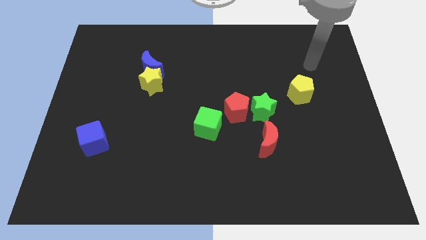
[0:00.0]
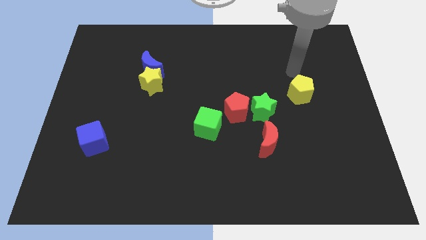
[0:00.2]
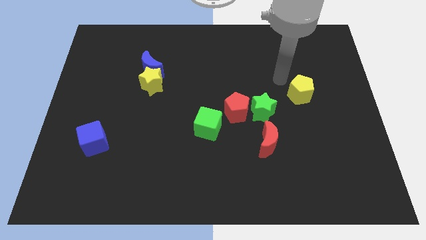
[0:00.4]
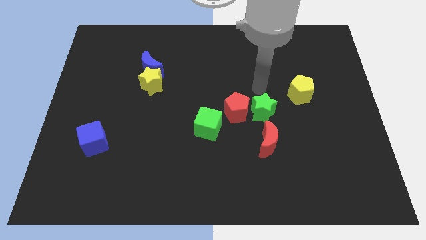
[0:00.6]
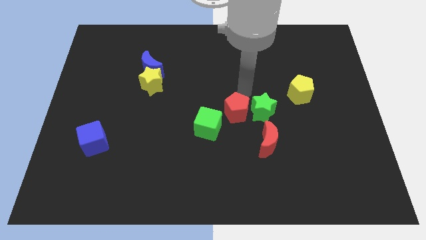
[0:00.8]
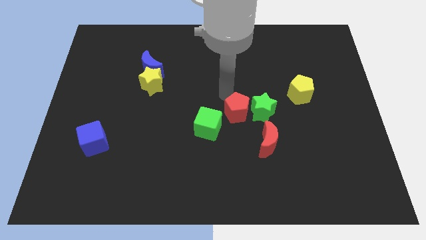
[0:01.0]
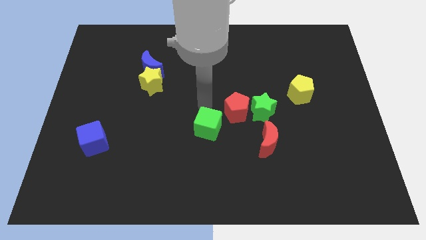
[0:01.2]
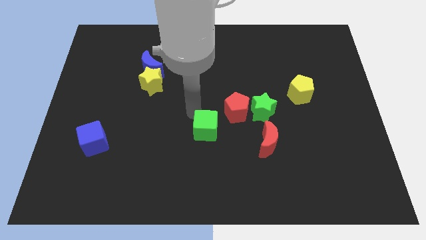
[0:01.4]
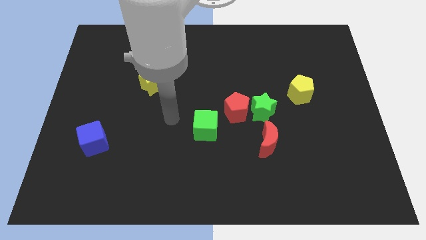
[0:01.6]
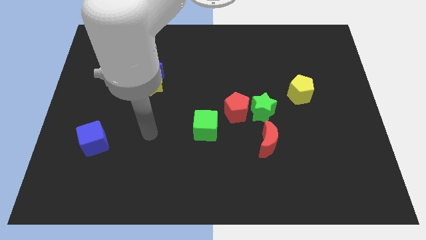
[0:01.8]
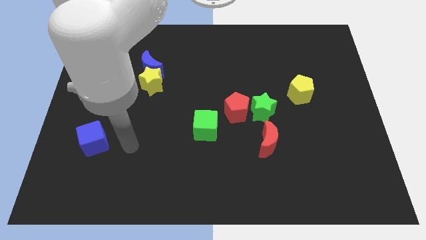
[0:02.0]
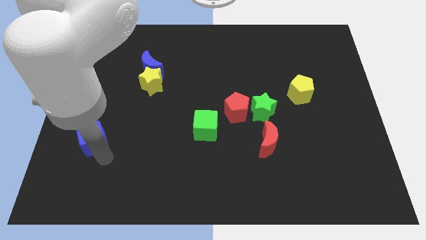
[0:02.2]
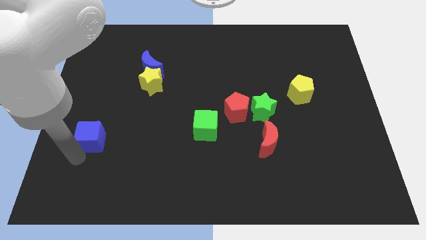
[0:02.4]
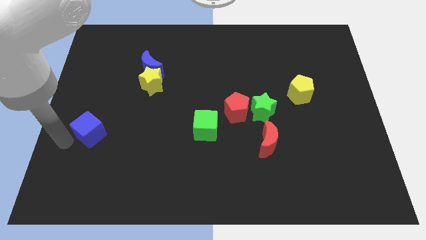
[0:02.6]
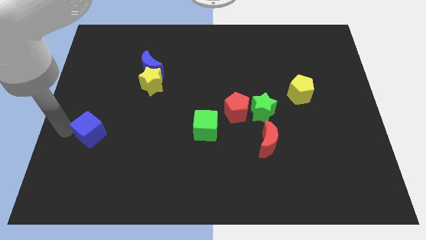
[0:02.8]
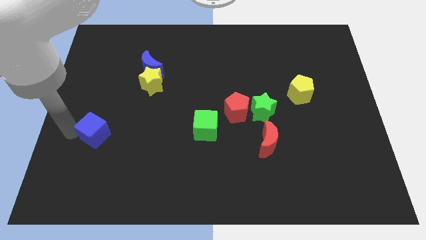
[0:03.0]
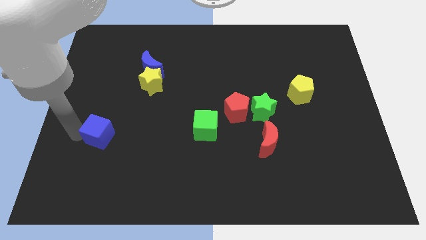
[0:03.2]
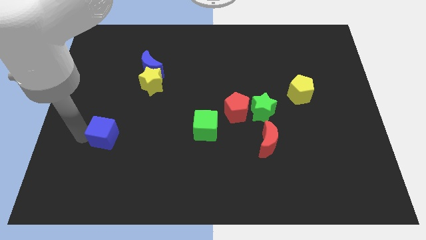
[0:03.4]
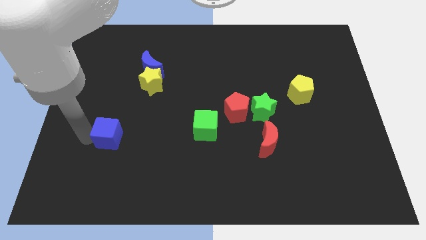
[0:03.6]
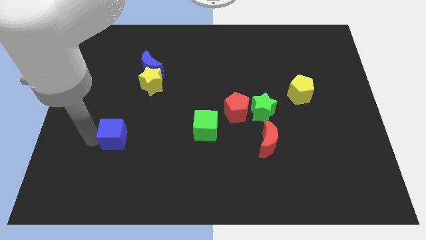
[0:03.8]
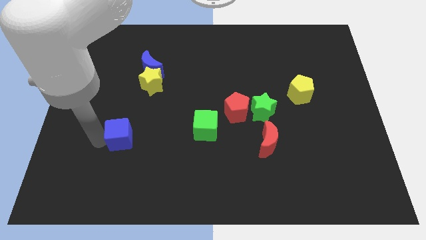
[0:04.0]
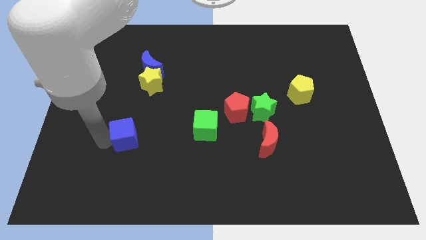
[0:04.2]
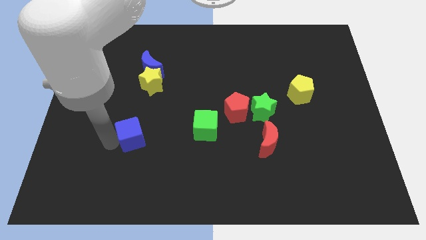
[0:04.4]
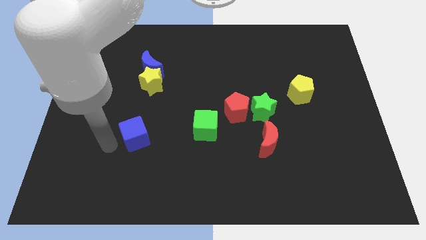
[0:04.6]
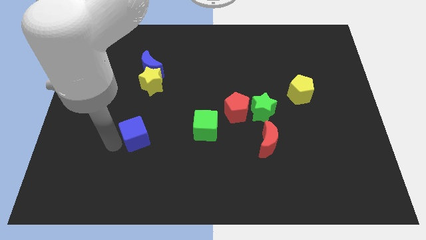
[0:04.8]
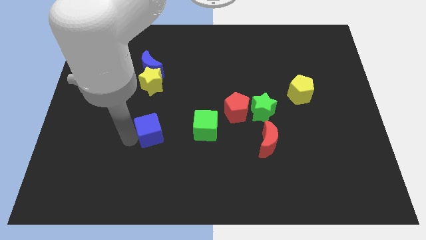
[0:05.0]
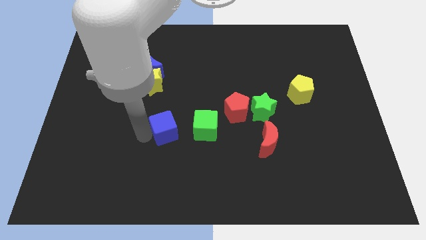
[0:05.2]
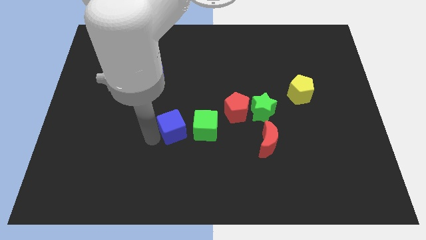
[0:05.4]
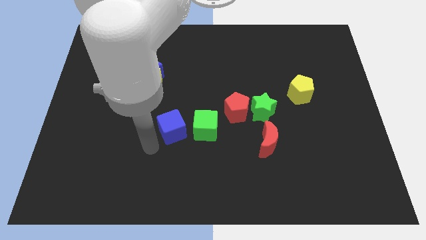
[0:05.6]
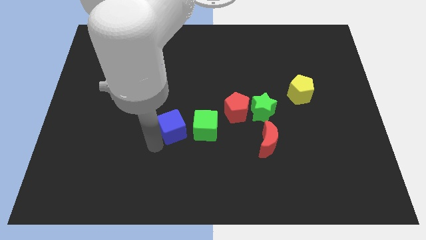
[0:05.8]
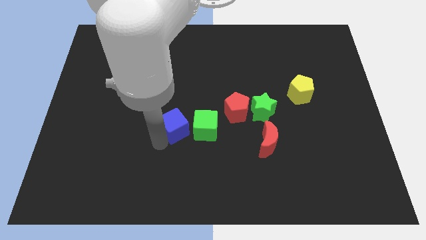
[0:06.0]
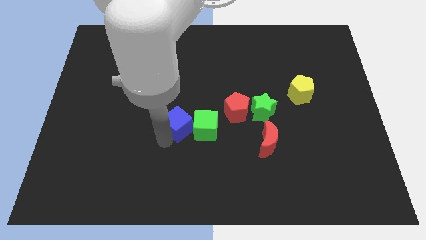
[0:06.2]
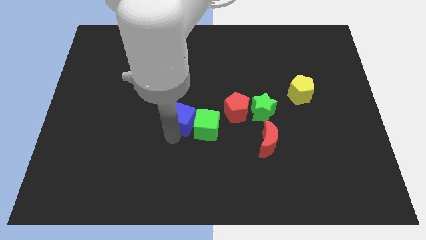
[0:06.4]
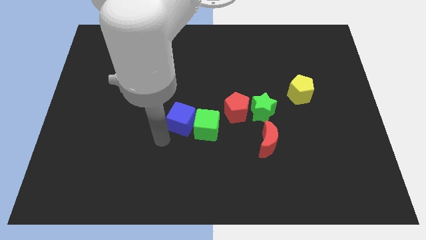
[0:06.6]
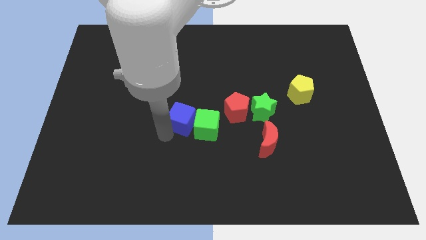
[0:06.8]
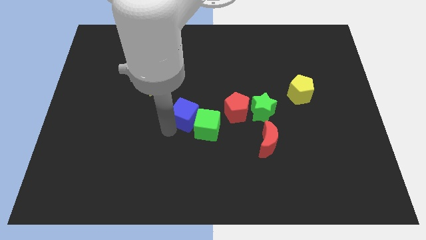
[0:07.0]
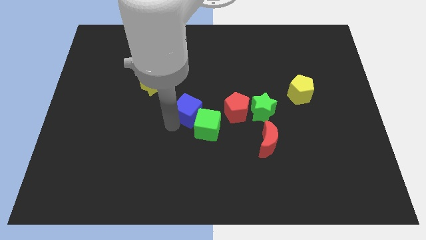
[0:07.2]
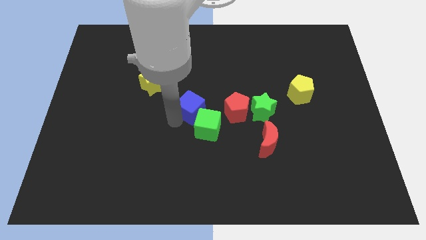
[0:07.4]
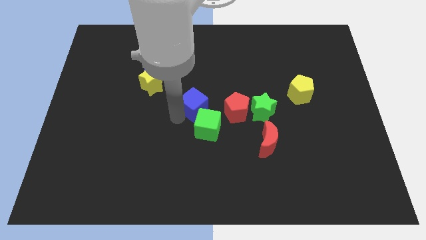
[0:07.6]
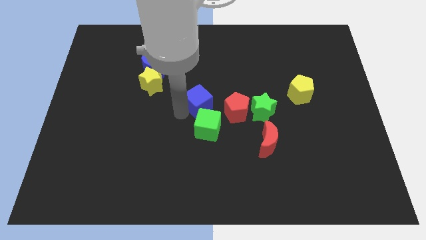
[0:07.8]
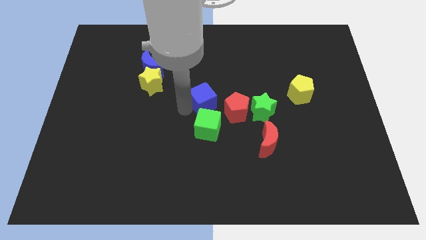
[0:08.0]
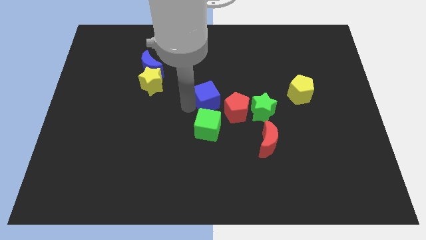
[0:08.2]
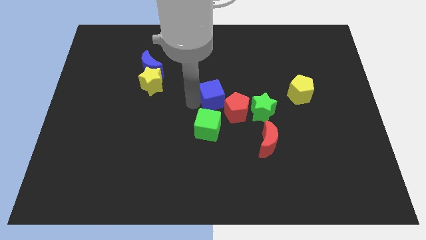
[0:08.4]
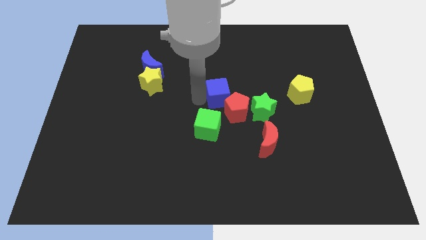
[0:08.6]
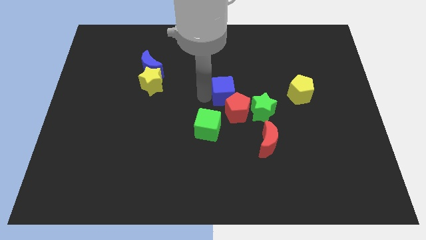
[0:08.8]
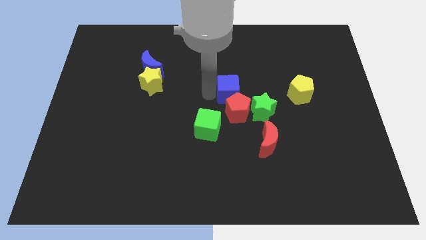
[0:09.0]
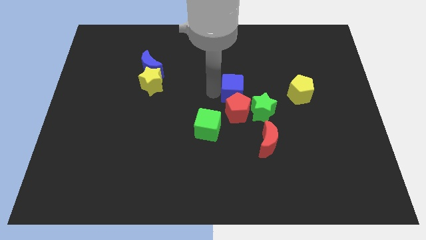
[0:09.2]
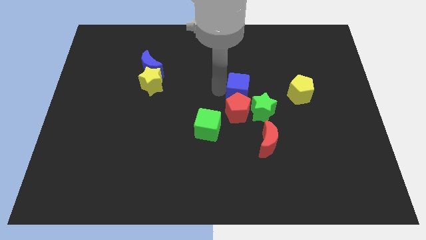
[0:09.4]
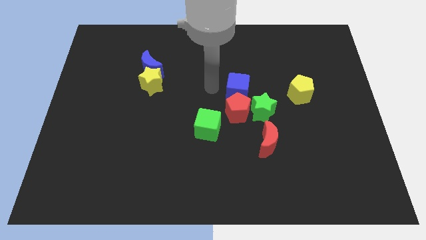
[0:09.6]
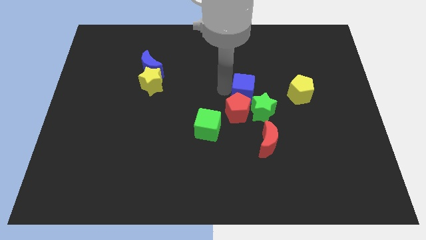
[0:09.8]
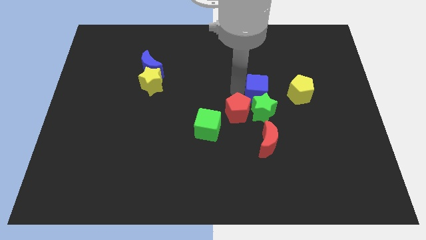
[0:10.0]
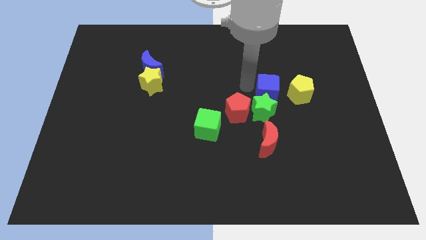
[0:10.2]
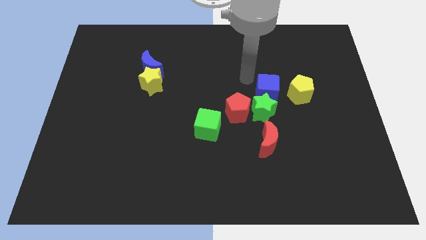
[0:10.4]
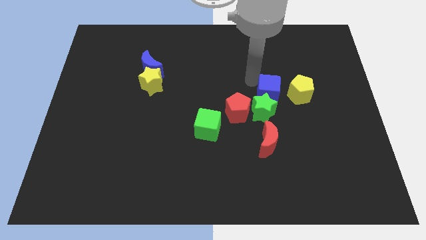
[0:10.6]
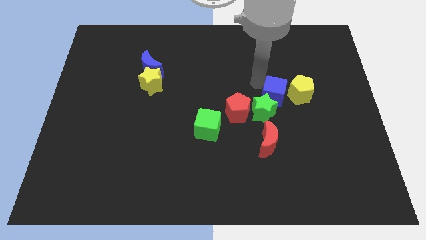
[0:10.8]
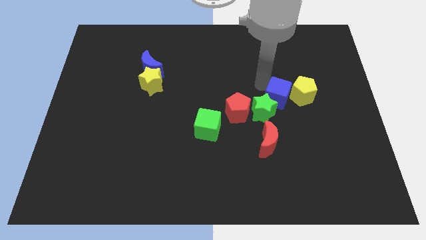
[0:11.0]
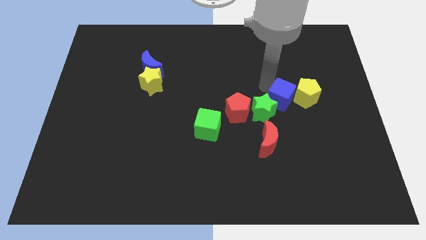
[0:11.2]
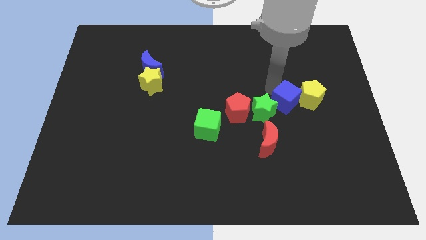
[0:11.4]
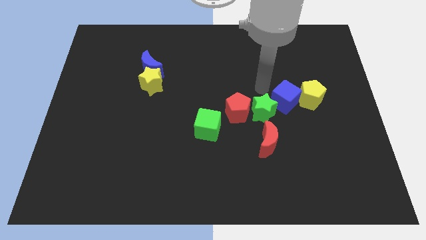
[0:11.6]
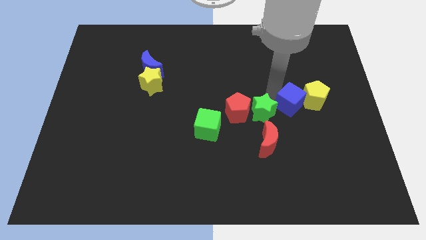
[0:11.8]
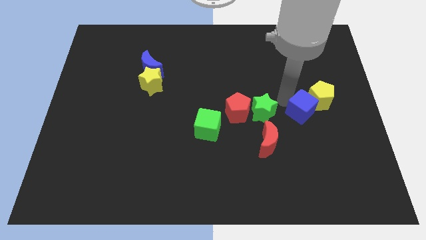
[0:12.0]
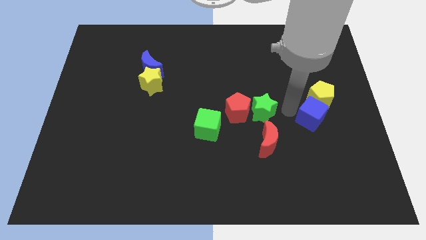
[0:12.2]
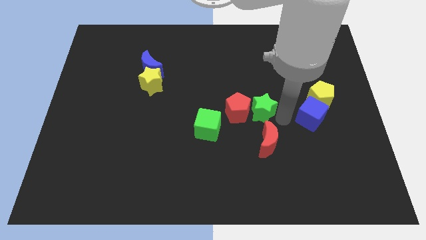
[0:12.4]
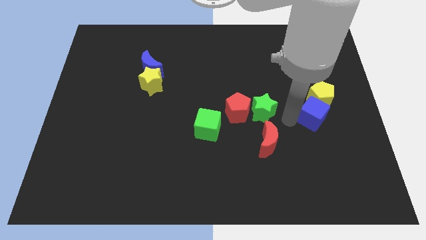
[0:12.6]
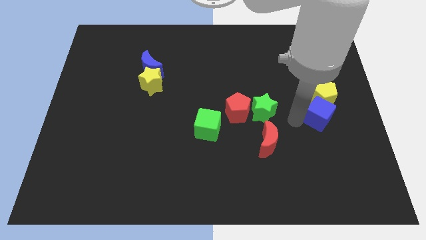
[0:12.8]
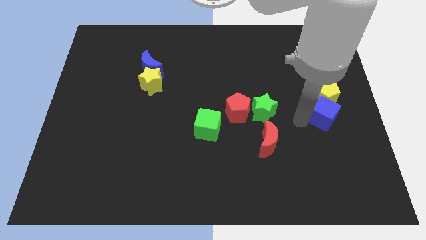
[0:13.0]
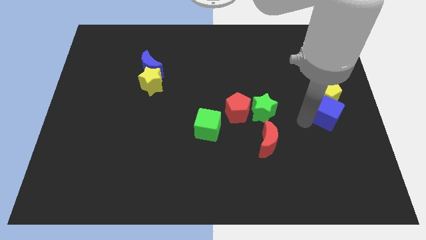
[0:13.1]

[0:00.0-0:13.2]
push the blue cube to the center right
